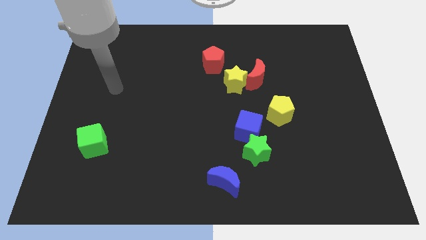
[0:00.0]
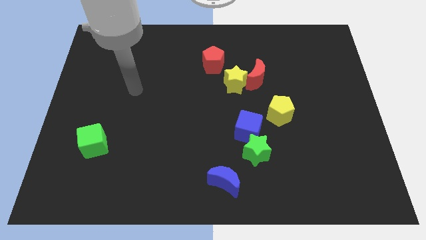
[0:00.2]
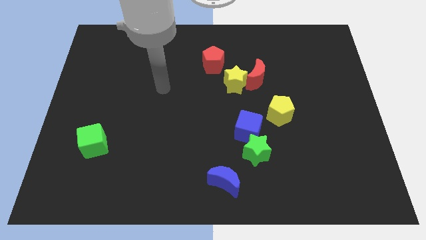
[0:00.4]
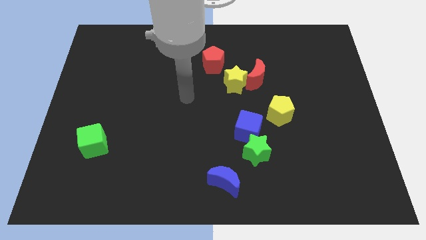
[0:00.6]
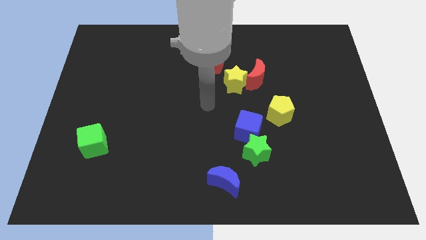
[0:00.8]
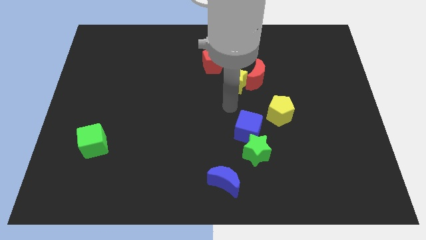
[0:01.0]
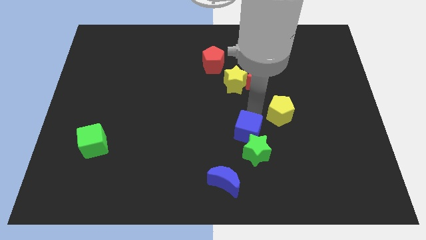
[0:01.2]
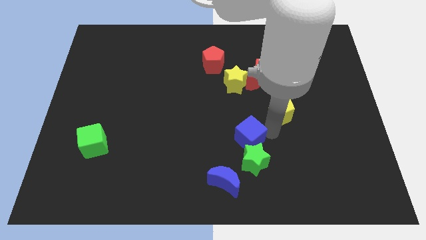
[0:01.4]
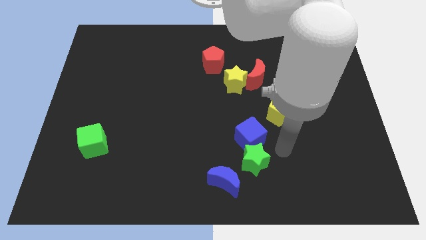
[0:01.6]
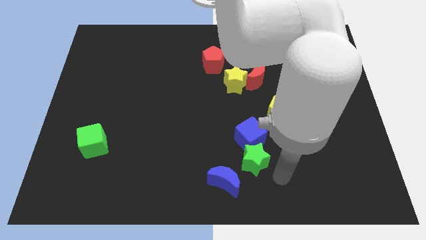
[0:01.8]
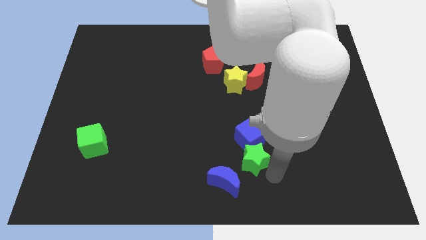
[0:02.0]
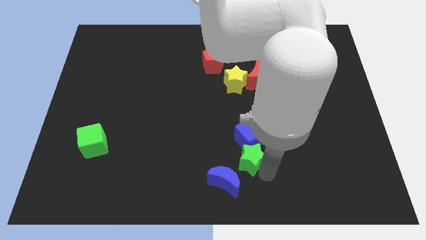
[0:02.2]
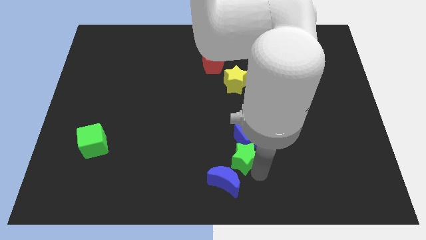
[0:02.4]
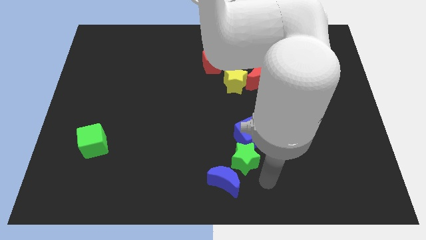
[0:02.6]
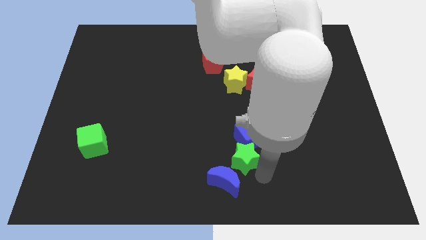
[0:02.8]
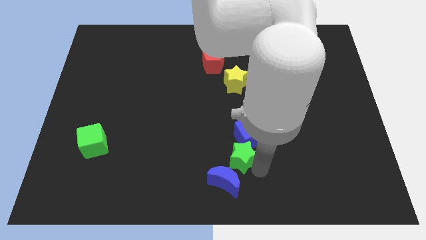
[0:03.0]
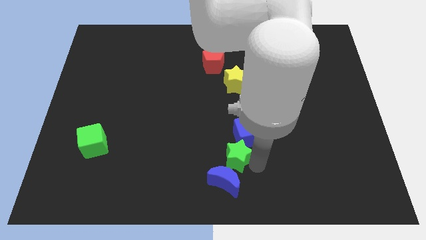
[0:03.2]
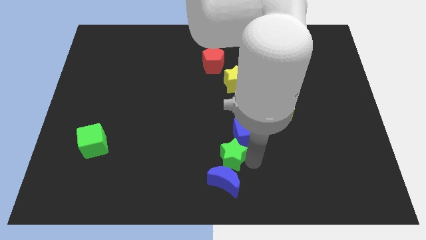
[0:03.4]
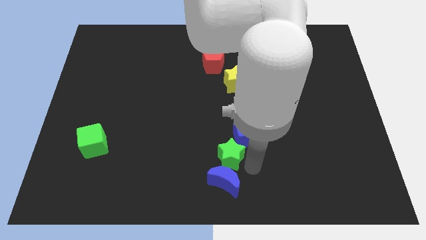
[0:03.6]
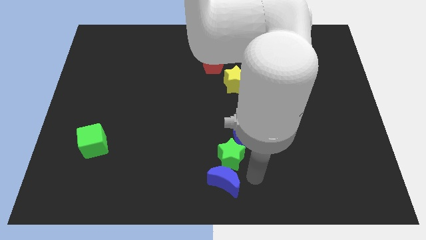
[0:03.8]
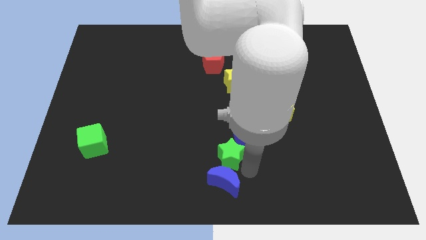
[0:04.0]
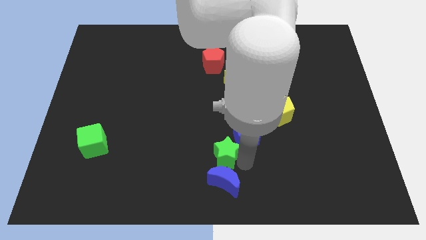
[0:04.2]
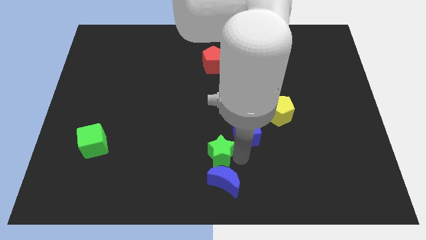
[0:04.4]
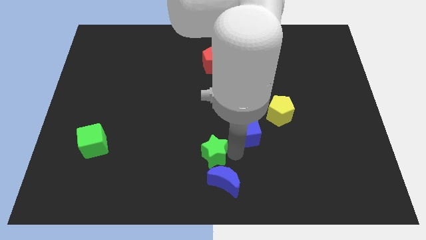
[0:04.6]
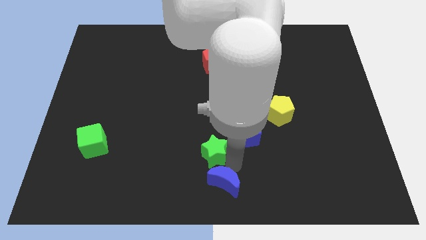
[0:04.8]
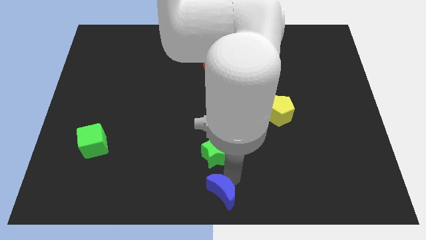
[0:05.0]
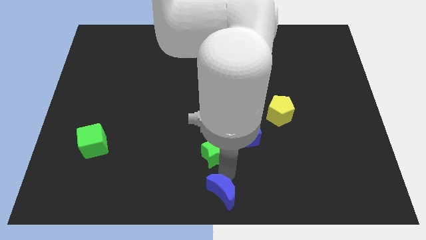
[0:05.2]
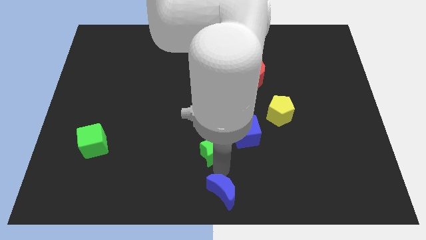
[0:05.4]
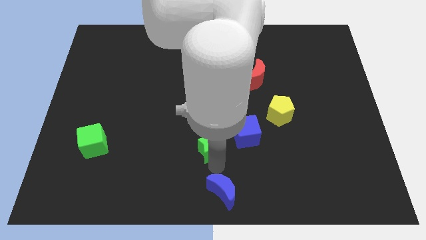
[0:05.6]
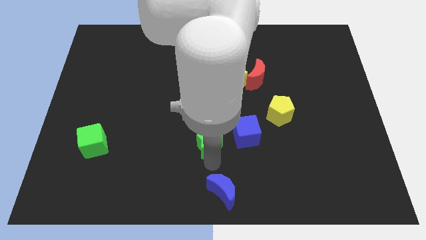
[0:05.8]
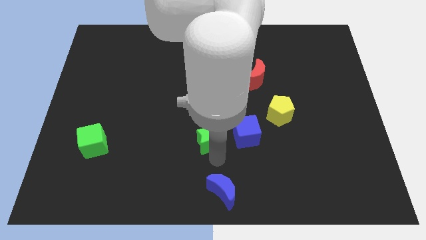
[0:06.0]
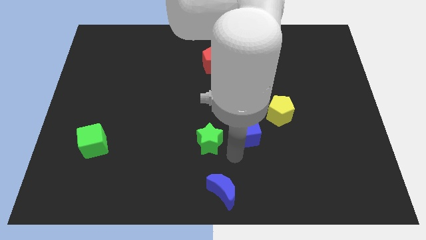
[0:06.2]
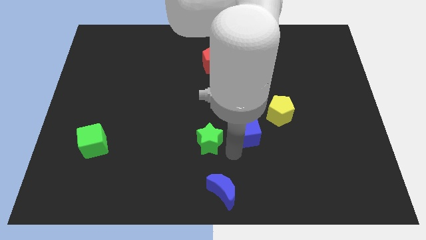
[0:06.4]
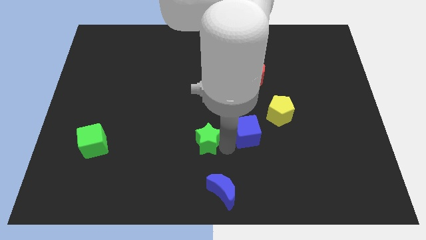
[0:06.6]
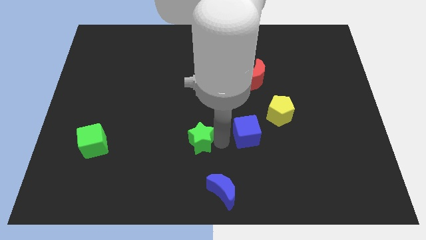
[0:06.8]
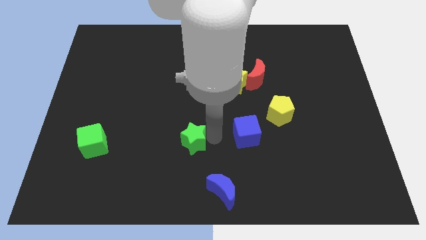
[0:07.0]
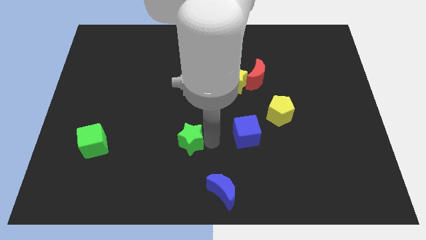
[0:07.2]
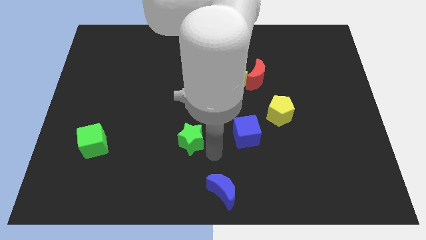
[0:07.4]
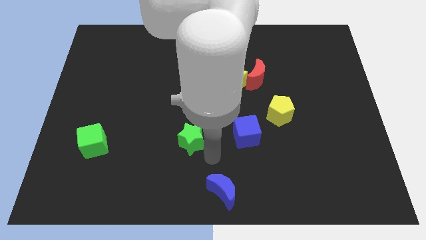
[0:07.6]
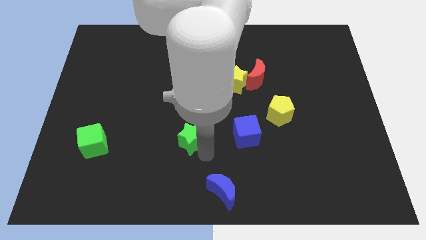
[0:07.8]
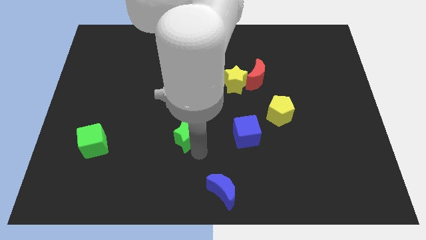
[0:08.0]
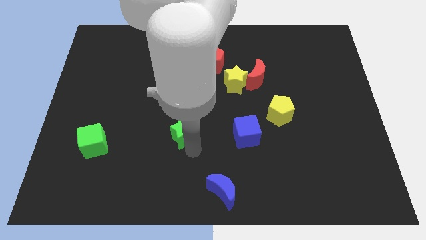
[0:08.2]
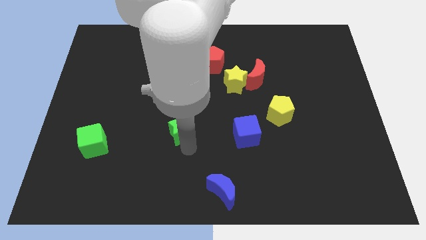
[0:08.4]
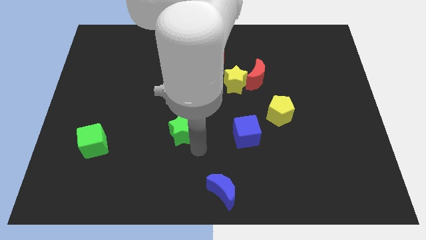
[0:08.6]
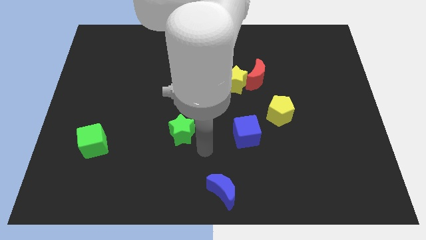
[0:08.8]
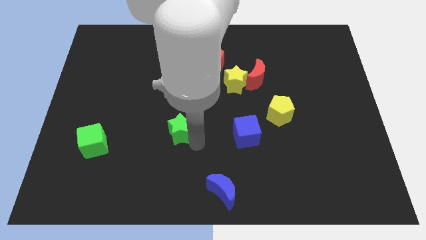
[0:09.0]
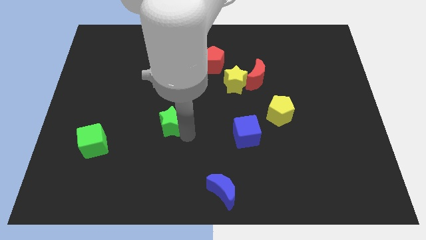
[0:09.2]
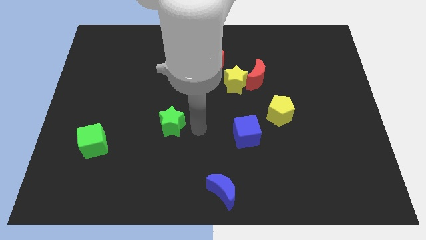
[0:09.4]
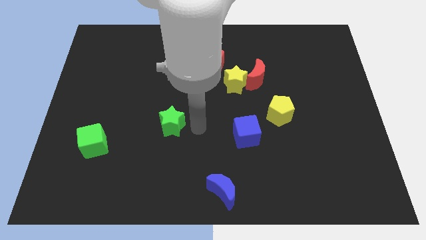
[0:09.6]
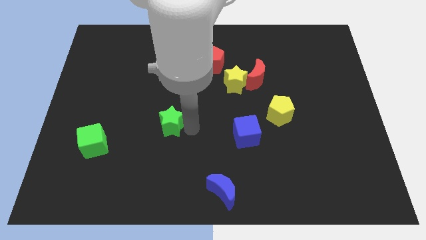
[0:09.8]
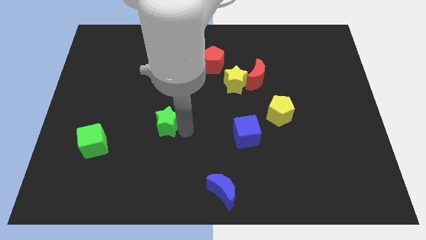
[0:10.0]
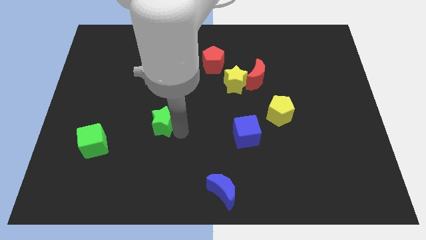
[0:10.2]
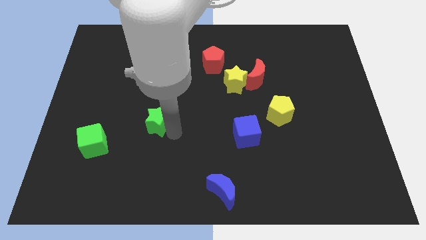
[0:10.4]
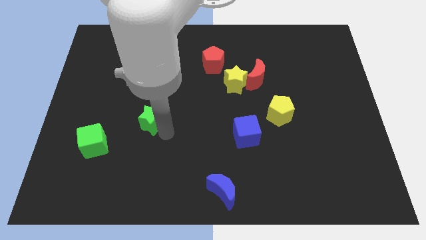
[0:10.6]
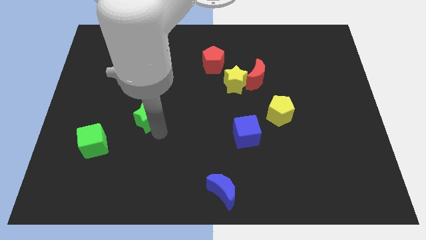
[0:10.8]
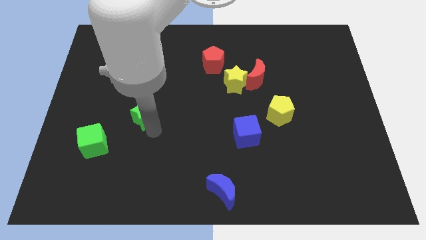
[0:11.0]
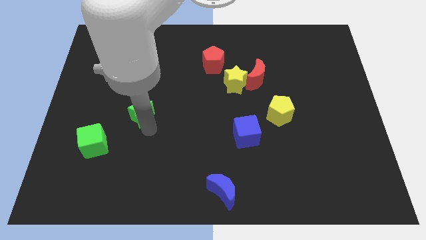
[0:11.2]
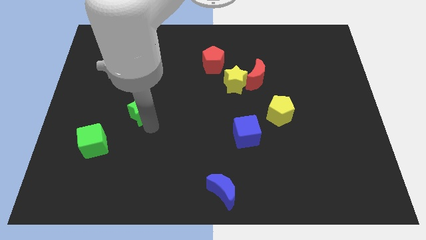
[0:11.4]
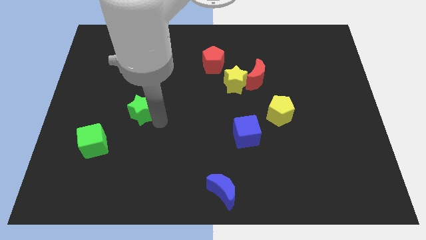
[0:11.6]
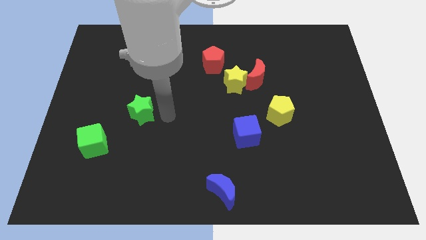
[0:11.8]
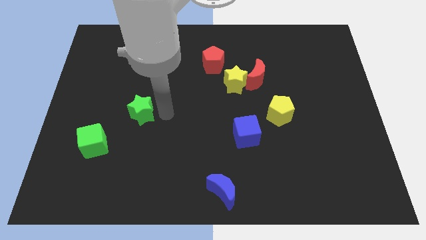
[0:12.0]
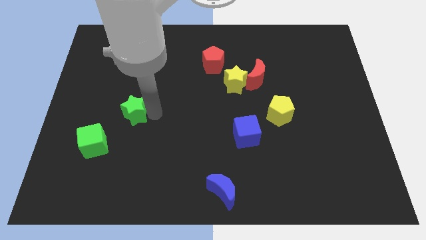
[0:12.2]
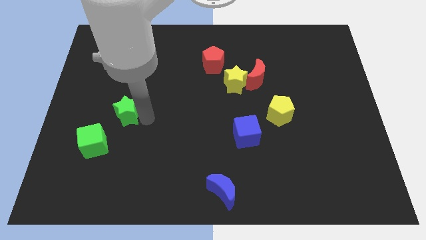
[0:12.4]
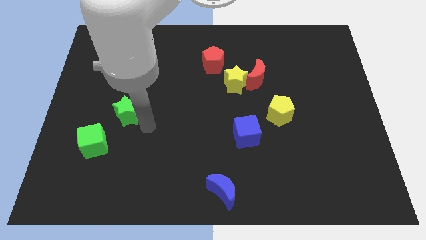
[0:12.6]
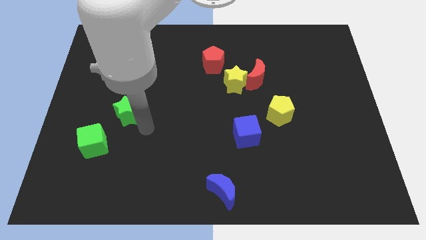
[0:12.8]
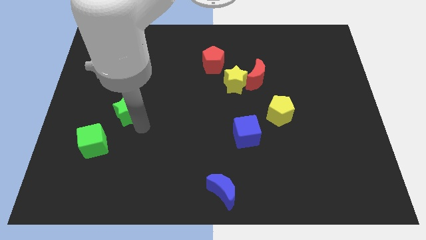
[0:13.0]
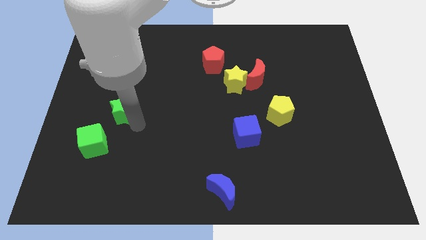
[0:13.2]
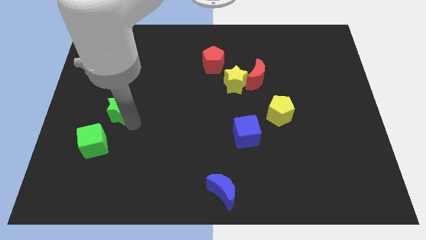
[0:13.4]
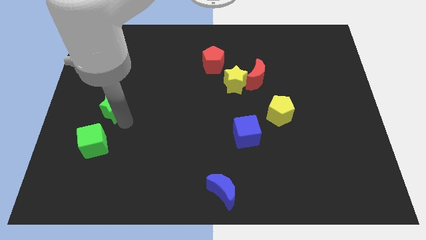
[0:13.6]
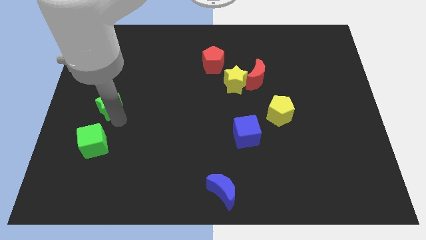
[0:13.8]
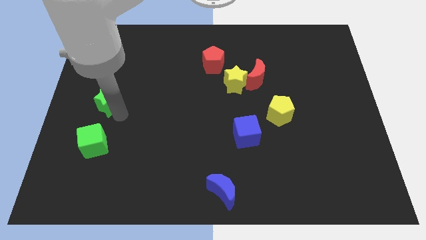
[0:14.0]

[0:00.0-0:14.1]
move the green star to the left side
